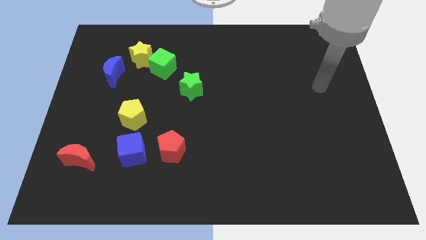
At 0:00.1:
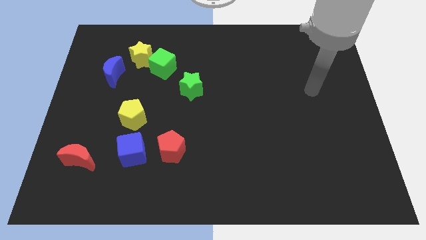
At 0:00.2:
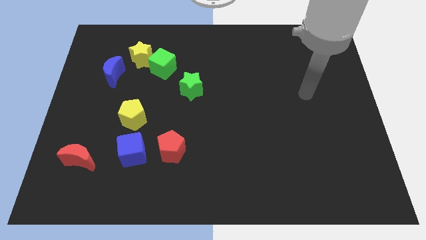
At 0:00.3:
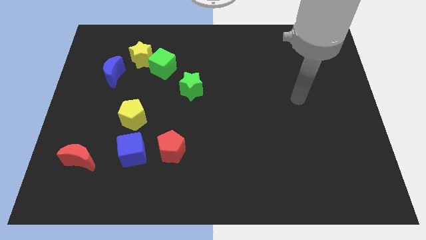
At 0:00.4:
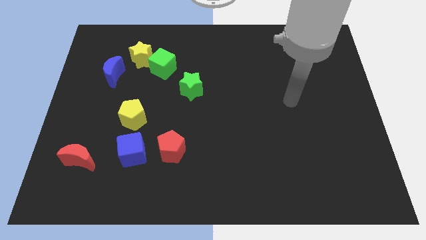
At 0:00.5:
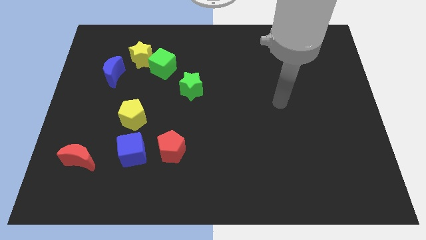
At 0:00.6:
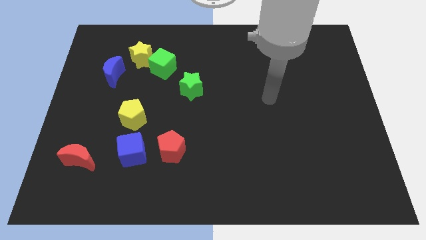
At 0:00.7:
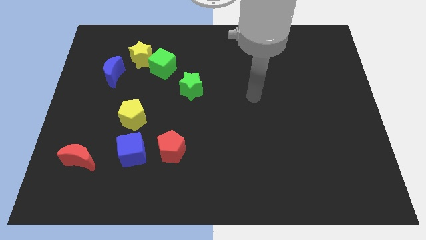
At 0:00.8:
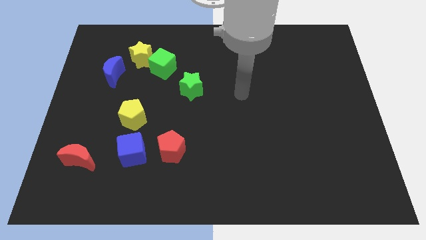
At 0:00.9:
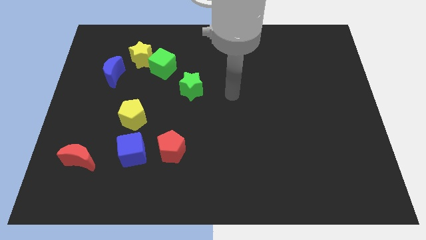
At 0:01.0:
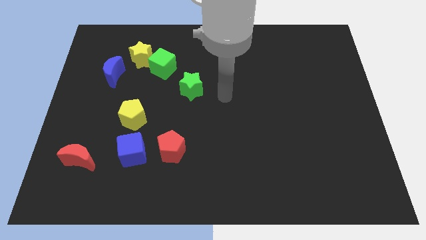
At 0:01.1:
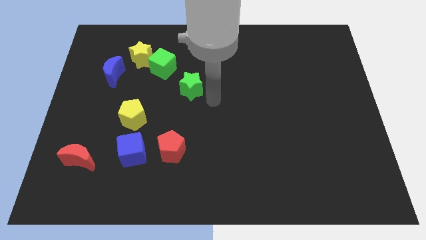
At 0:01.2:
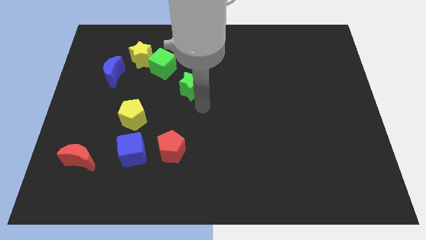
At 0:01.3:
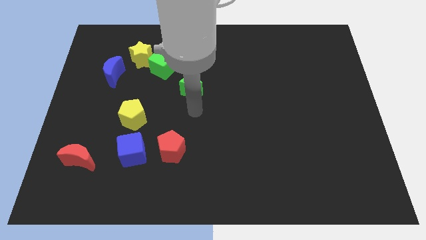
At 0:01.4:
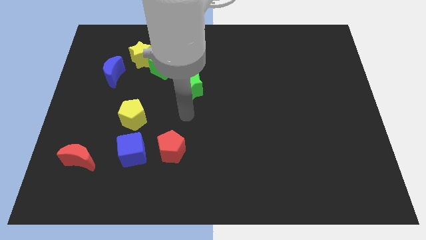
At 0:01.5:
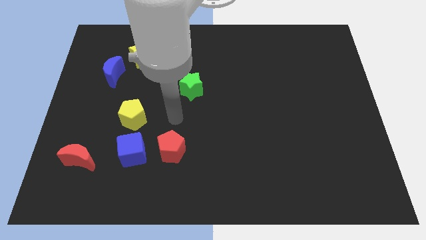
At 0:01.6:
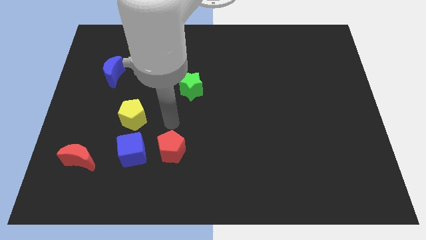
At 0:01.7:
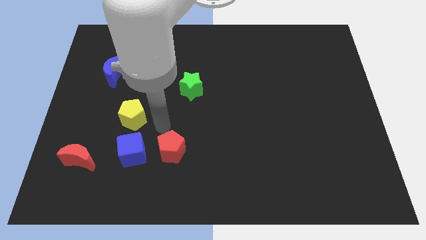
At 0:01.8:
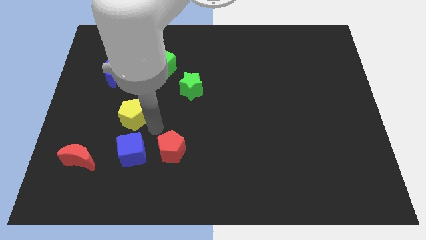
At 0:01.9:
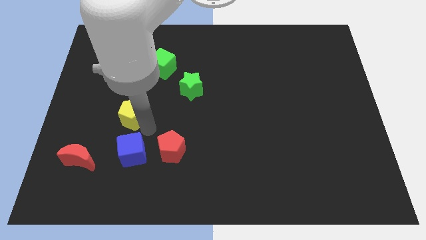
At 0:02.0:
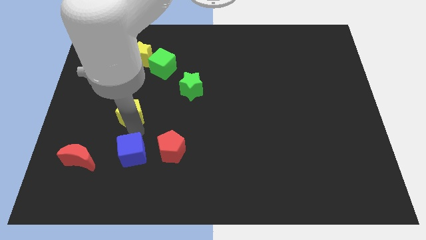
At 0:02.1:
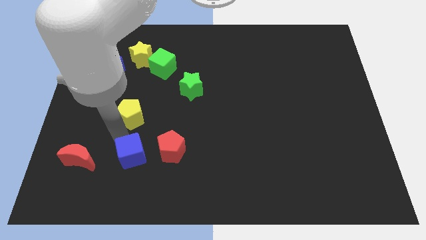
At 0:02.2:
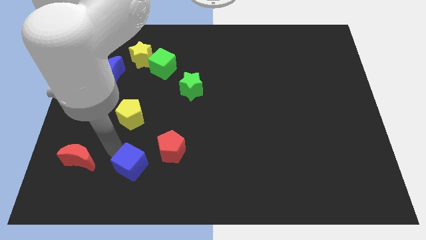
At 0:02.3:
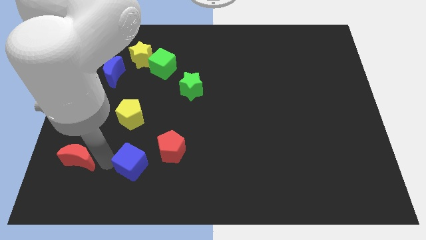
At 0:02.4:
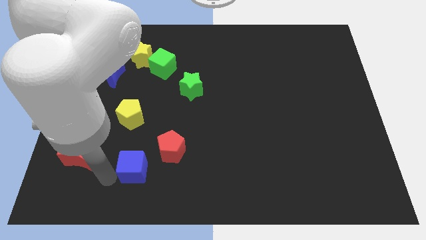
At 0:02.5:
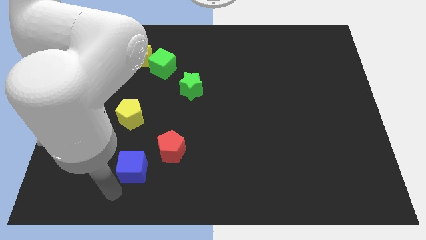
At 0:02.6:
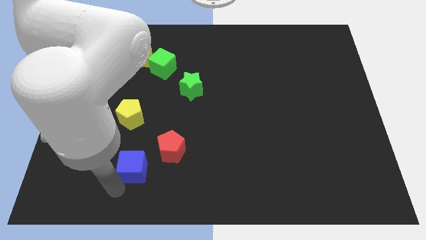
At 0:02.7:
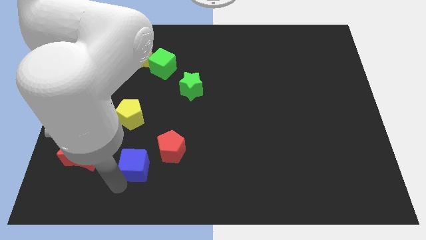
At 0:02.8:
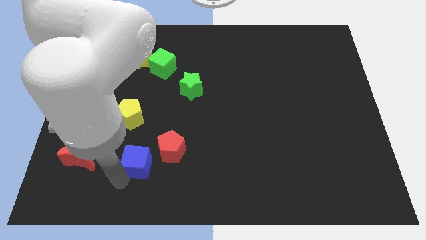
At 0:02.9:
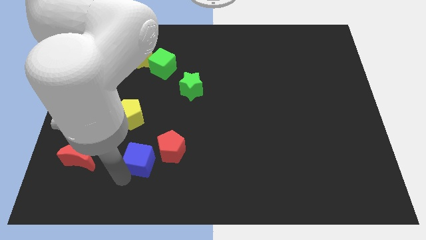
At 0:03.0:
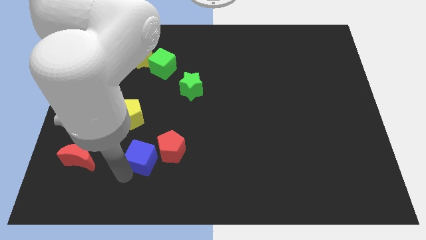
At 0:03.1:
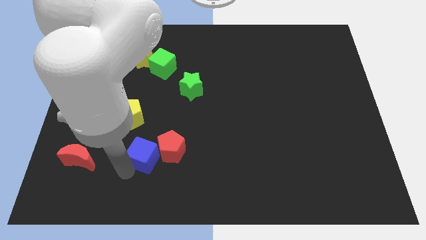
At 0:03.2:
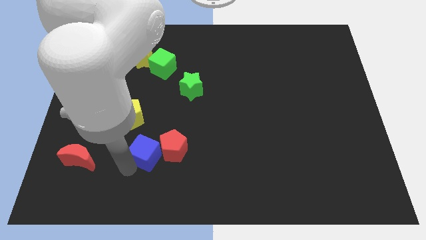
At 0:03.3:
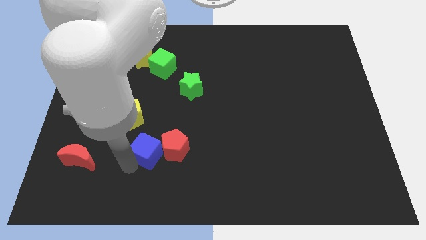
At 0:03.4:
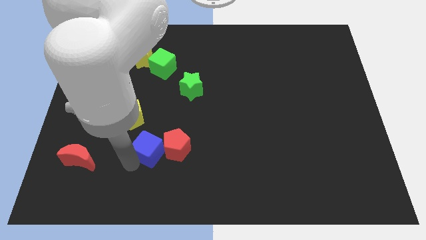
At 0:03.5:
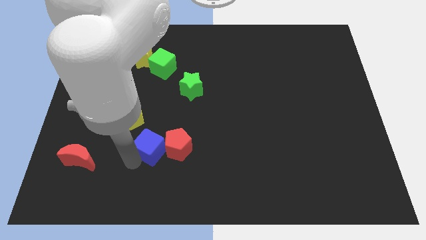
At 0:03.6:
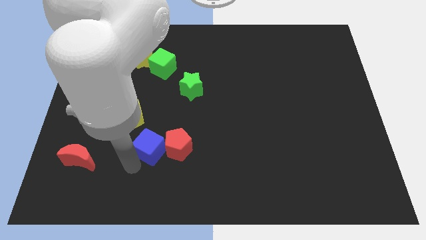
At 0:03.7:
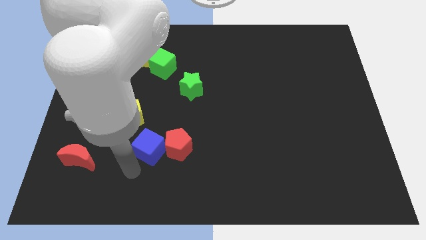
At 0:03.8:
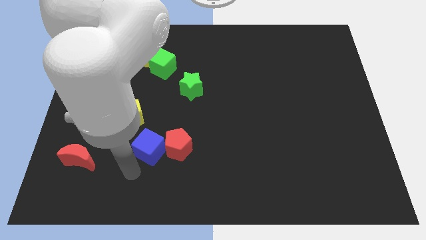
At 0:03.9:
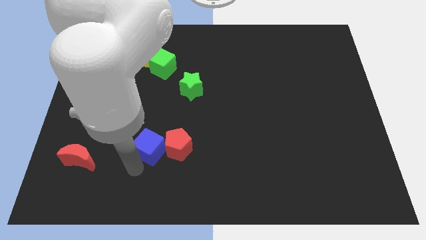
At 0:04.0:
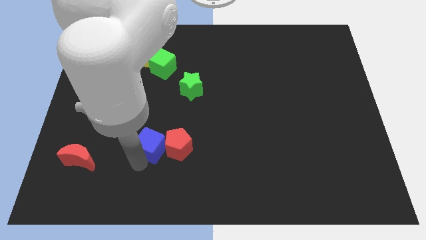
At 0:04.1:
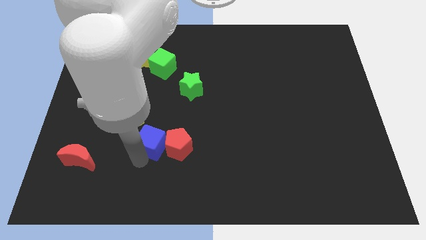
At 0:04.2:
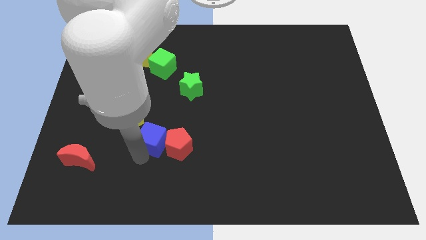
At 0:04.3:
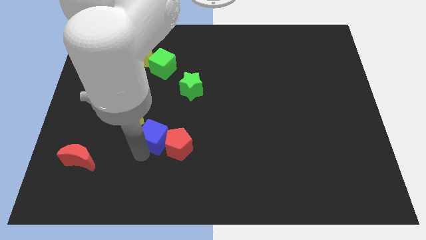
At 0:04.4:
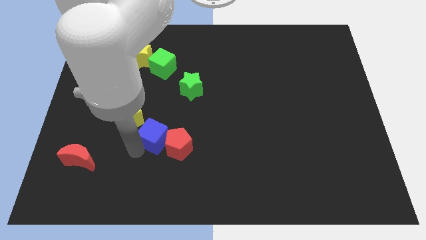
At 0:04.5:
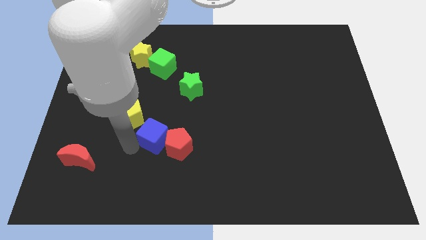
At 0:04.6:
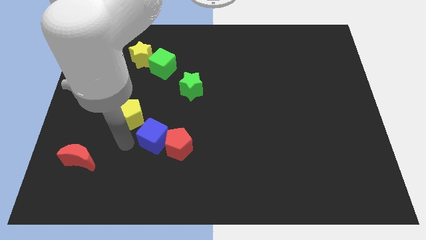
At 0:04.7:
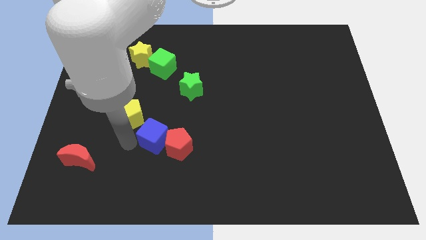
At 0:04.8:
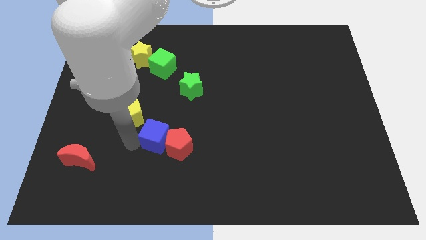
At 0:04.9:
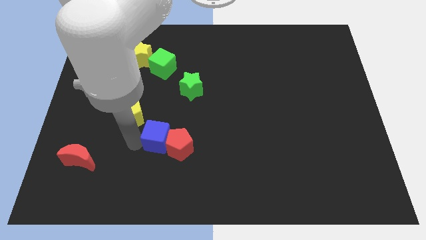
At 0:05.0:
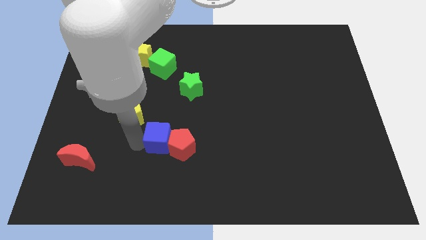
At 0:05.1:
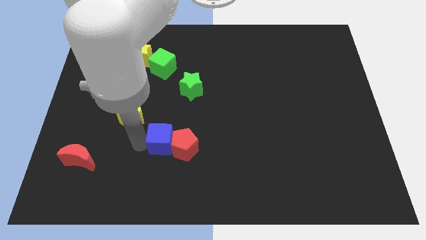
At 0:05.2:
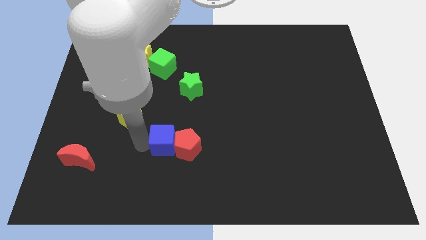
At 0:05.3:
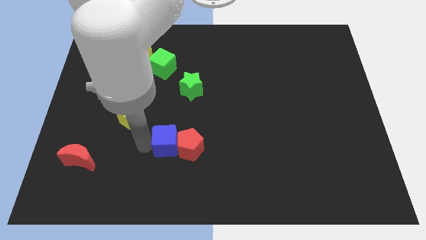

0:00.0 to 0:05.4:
slightly push the blue cube right

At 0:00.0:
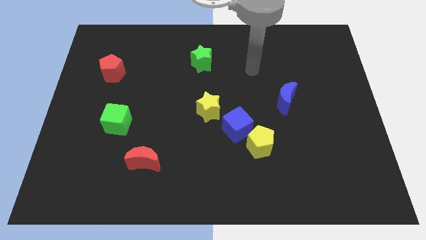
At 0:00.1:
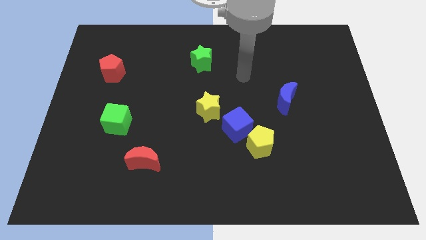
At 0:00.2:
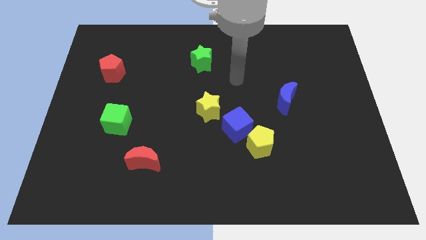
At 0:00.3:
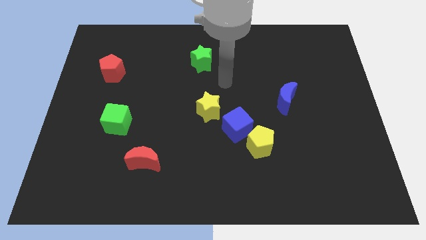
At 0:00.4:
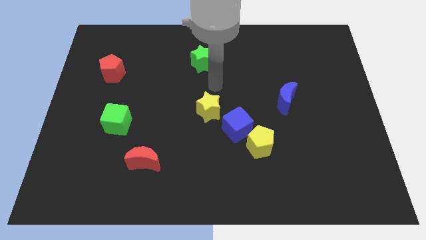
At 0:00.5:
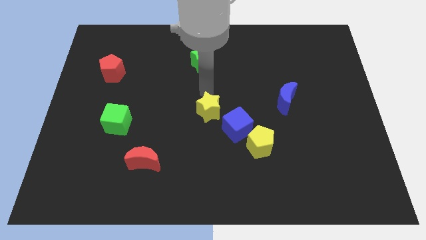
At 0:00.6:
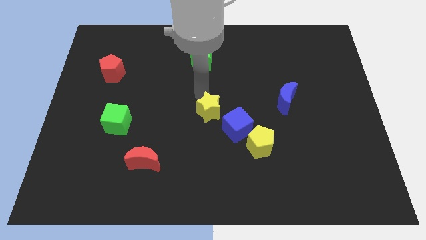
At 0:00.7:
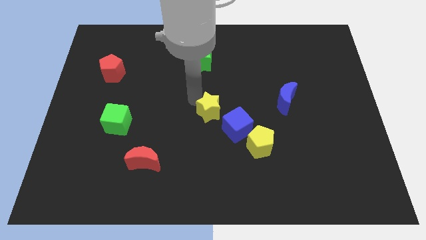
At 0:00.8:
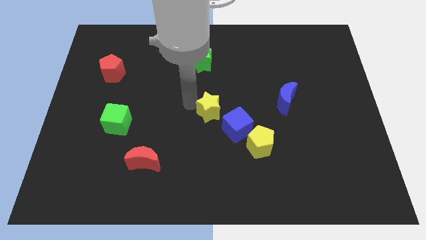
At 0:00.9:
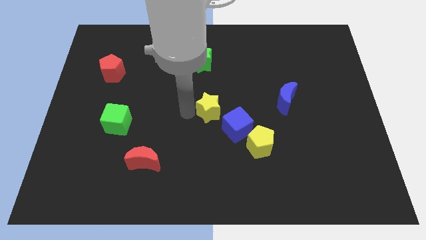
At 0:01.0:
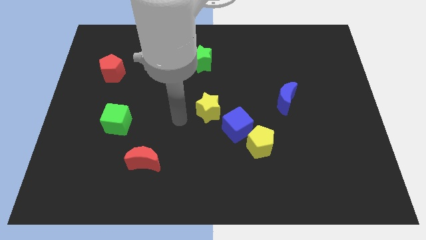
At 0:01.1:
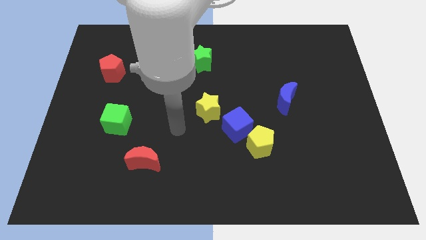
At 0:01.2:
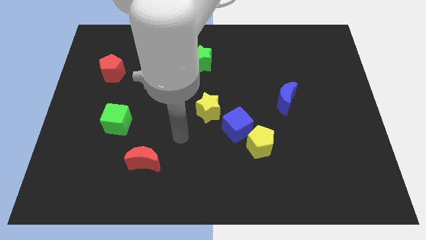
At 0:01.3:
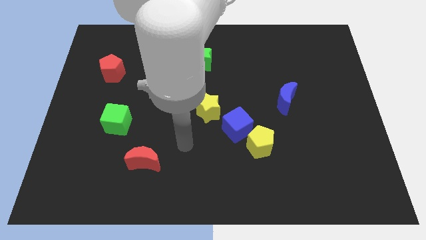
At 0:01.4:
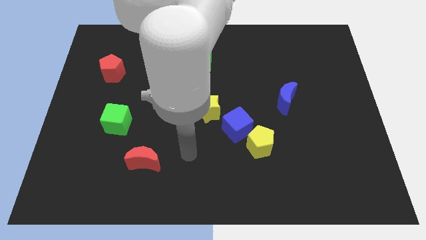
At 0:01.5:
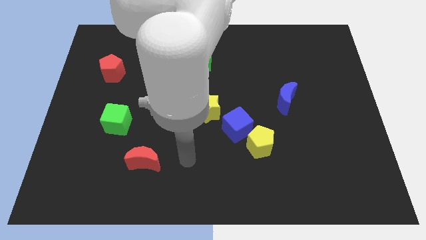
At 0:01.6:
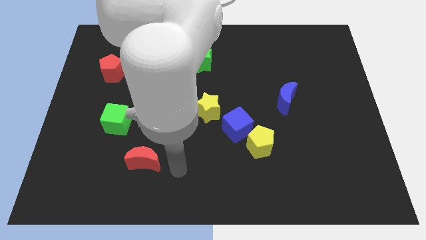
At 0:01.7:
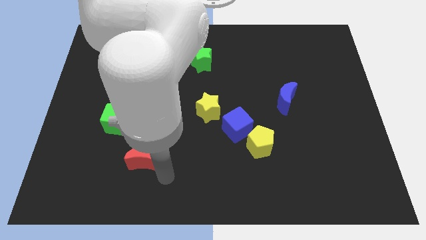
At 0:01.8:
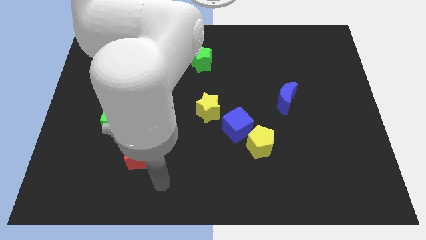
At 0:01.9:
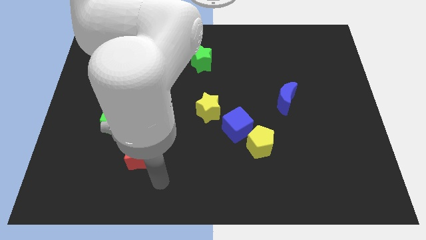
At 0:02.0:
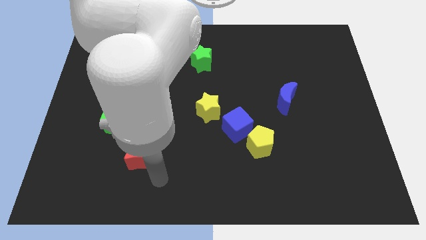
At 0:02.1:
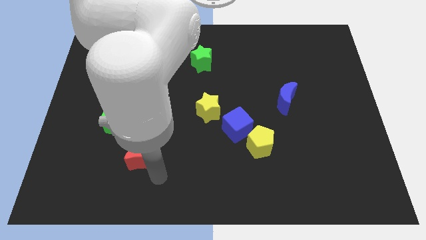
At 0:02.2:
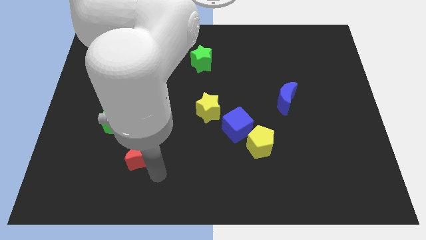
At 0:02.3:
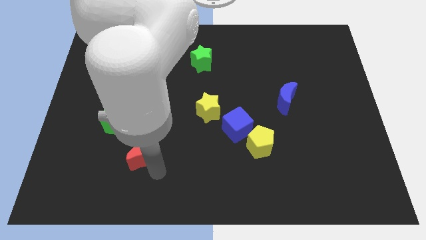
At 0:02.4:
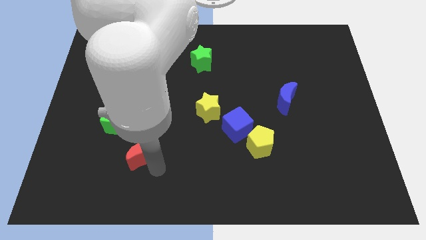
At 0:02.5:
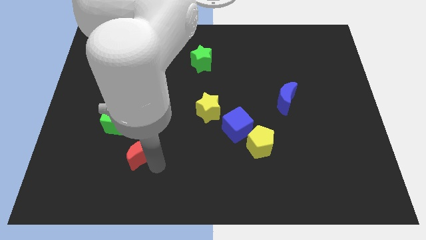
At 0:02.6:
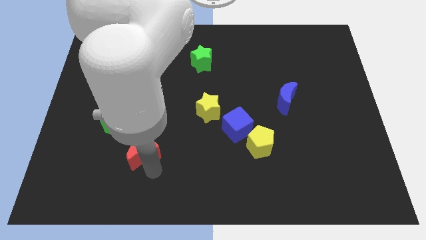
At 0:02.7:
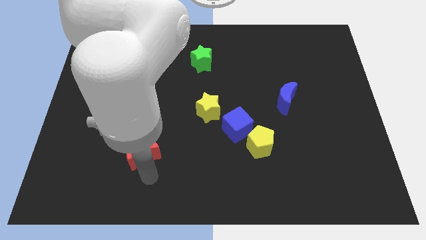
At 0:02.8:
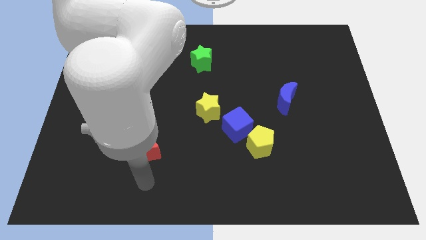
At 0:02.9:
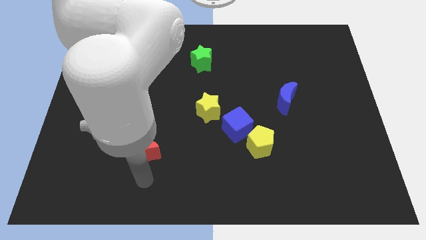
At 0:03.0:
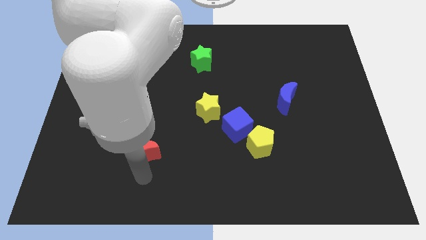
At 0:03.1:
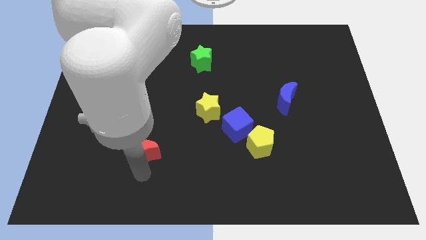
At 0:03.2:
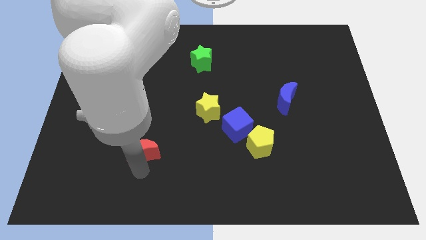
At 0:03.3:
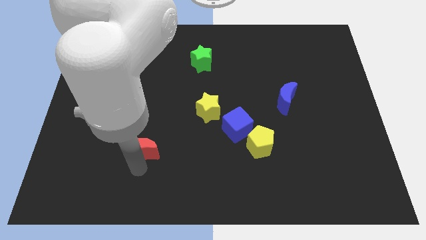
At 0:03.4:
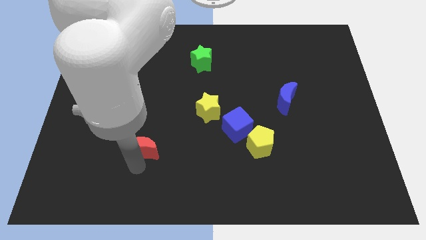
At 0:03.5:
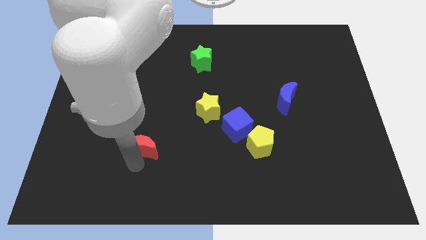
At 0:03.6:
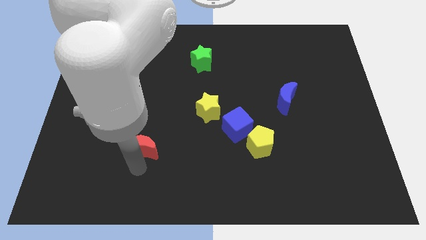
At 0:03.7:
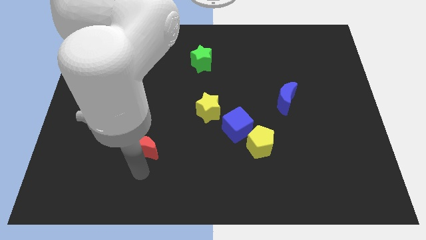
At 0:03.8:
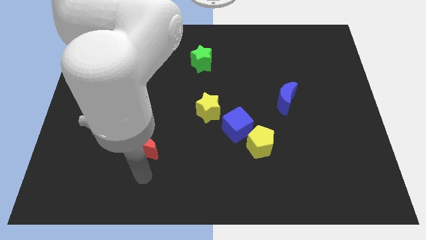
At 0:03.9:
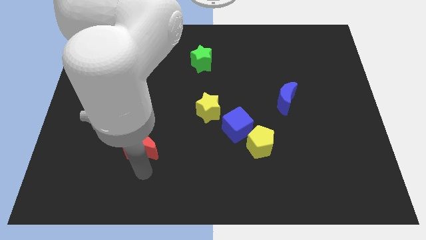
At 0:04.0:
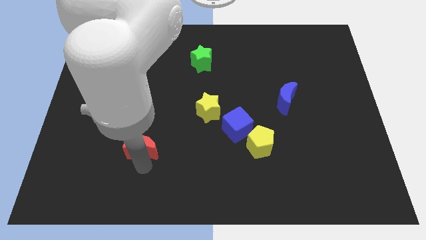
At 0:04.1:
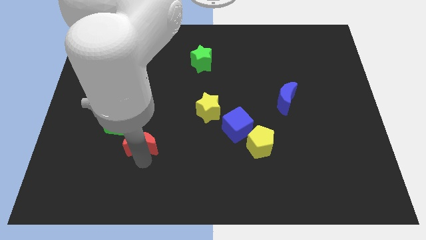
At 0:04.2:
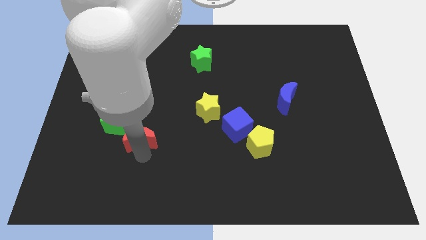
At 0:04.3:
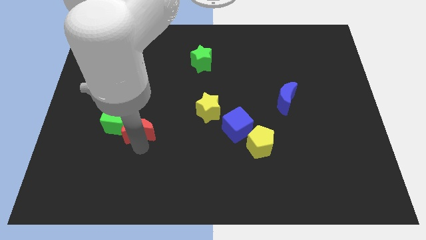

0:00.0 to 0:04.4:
slide the red moon up a little bit
